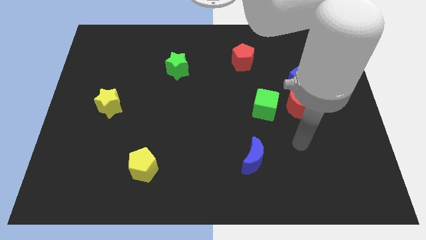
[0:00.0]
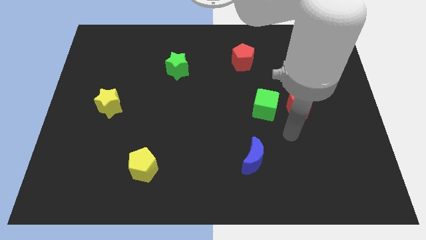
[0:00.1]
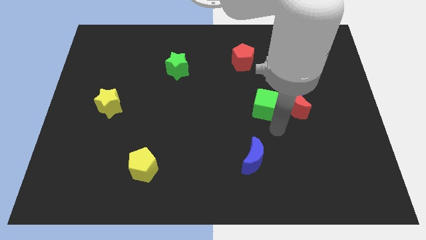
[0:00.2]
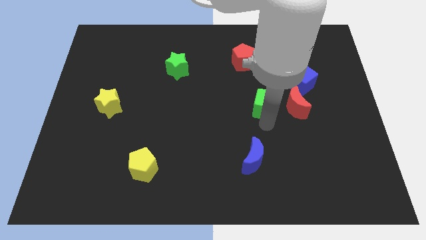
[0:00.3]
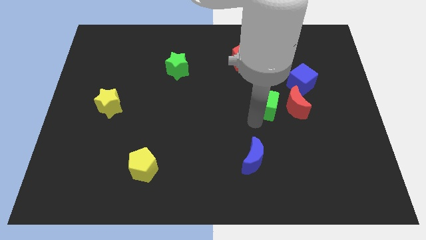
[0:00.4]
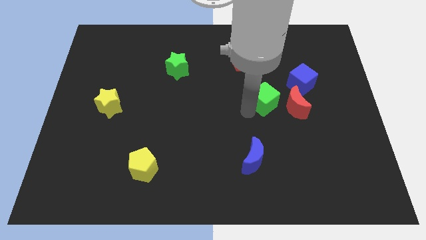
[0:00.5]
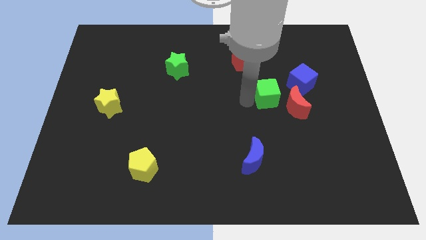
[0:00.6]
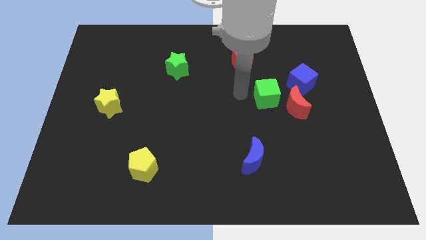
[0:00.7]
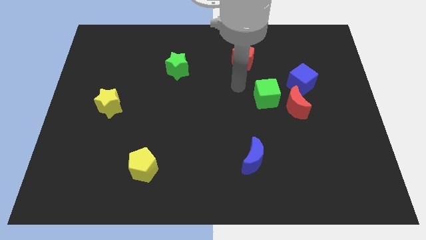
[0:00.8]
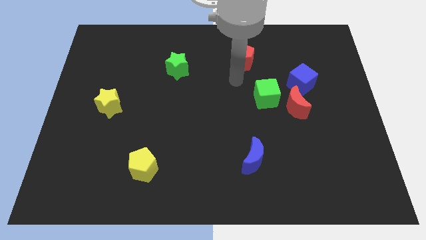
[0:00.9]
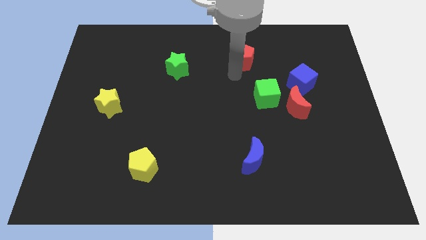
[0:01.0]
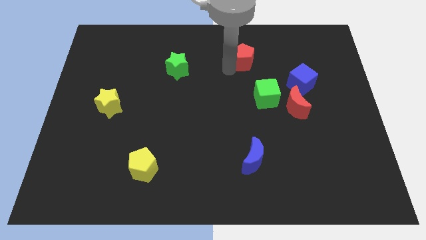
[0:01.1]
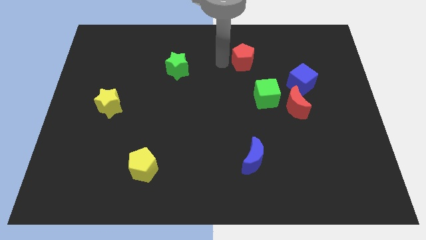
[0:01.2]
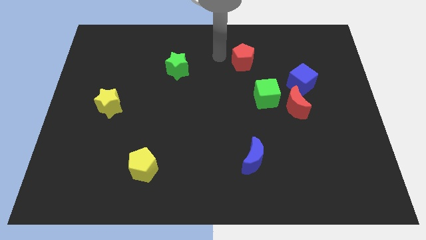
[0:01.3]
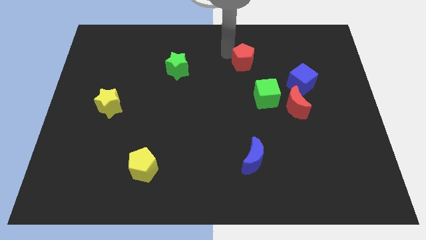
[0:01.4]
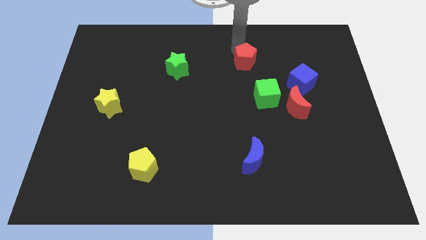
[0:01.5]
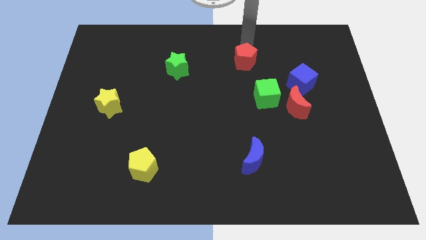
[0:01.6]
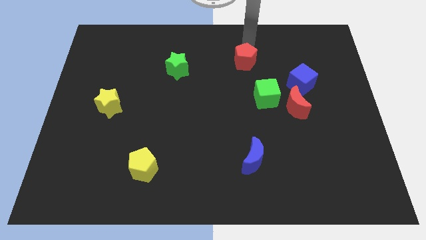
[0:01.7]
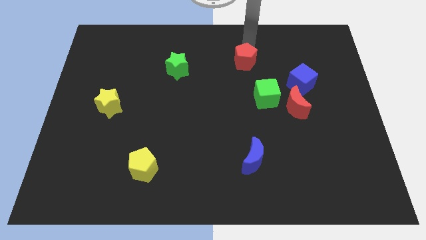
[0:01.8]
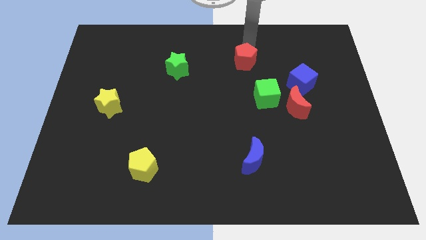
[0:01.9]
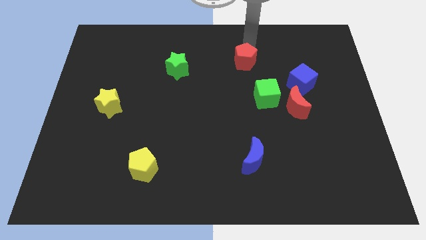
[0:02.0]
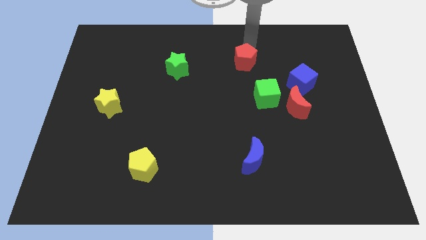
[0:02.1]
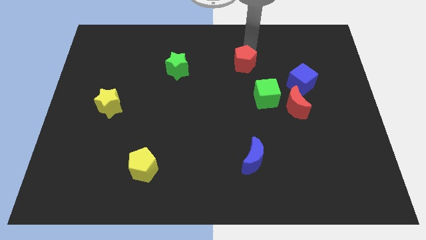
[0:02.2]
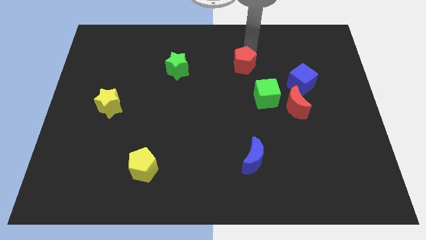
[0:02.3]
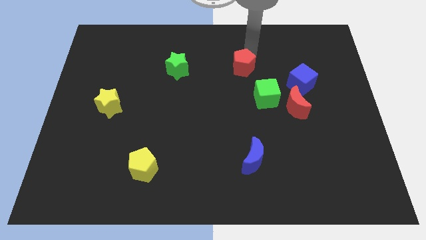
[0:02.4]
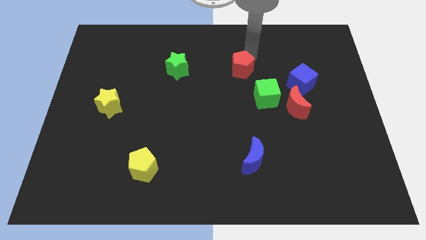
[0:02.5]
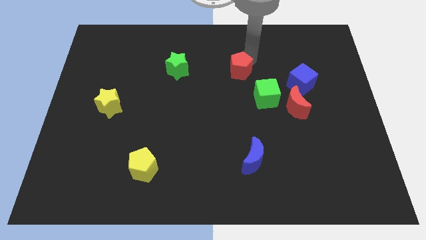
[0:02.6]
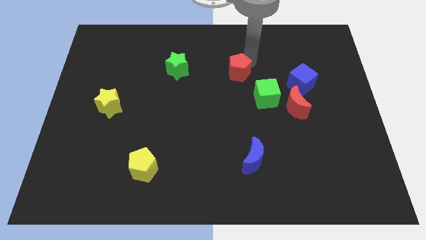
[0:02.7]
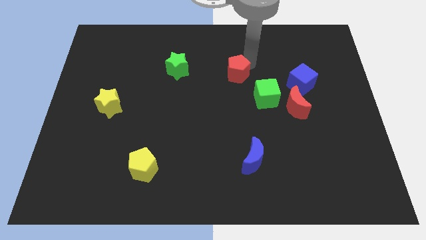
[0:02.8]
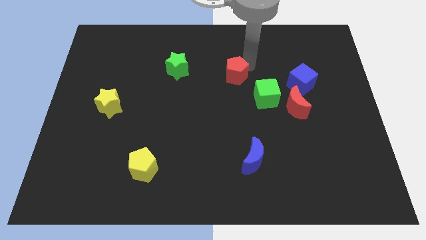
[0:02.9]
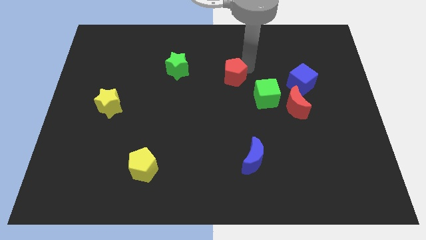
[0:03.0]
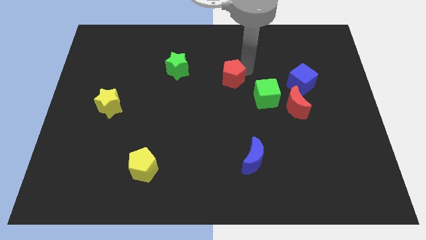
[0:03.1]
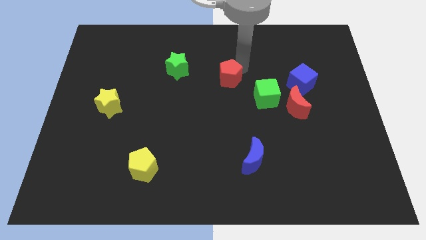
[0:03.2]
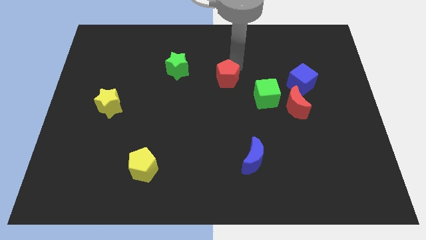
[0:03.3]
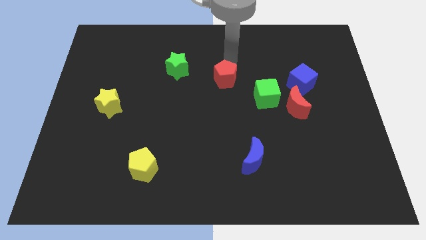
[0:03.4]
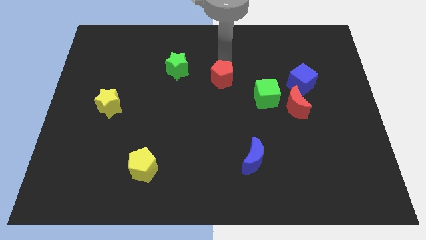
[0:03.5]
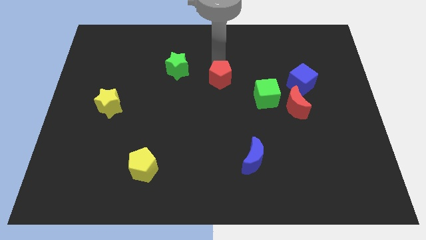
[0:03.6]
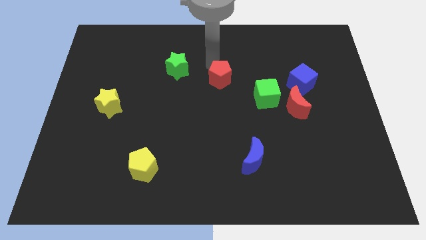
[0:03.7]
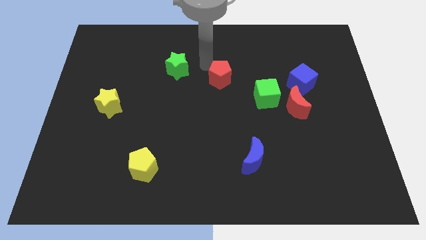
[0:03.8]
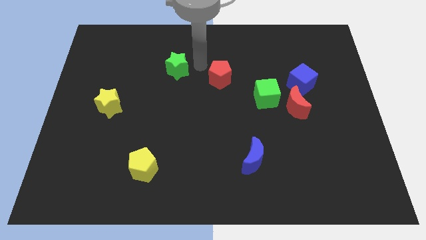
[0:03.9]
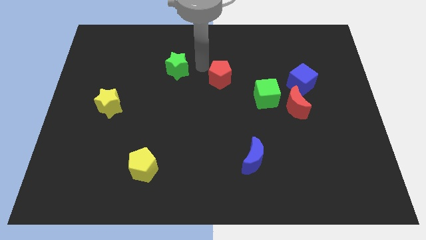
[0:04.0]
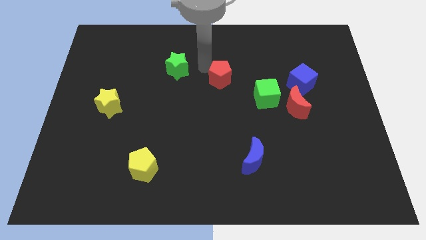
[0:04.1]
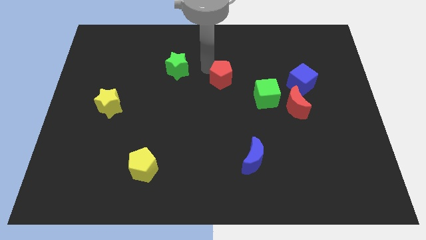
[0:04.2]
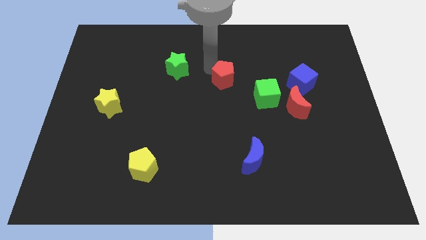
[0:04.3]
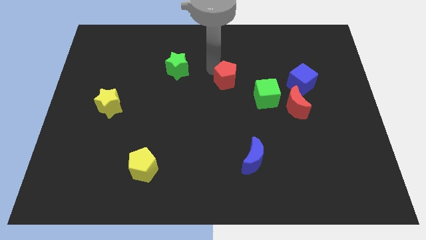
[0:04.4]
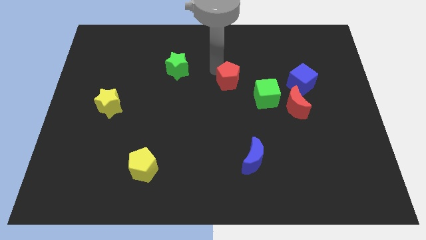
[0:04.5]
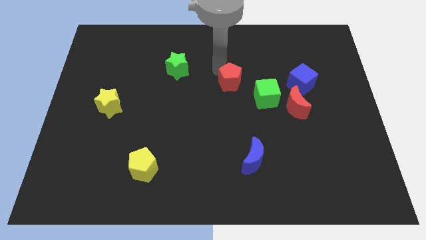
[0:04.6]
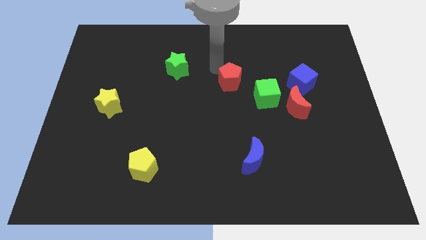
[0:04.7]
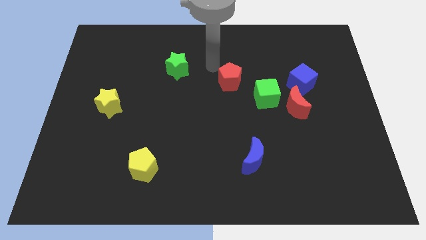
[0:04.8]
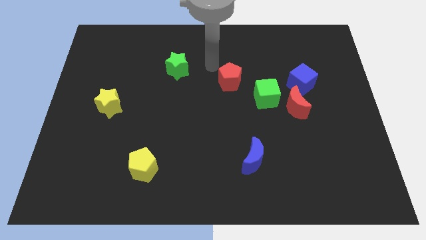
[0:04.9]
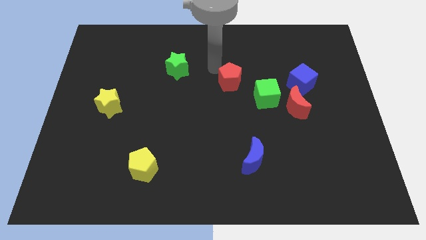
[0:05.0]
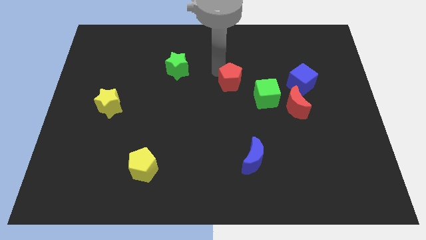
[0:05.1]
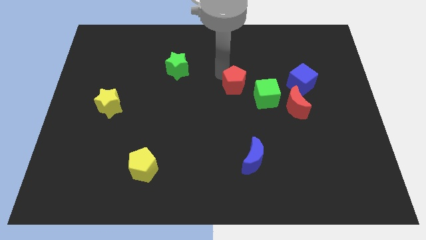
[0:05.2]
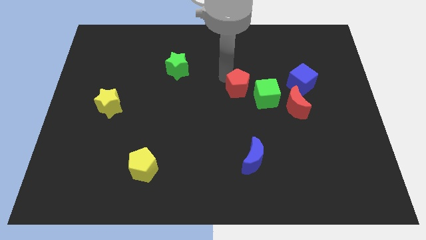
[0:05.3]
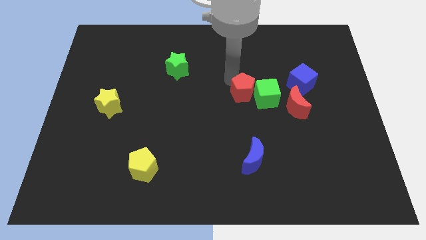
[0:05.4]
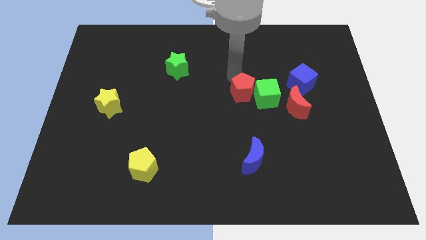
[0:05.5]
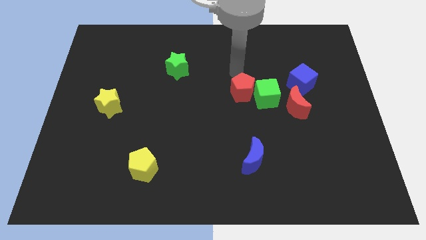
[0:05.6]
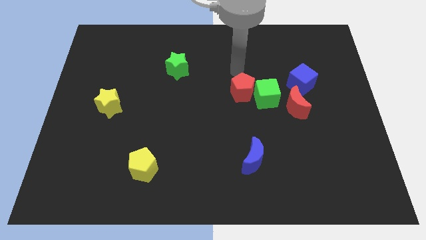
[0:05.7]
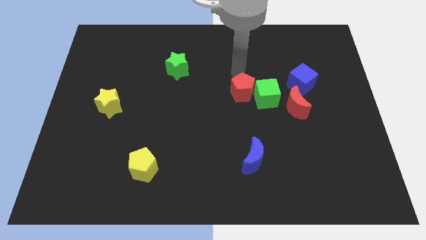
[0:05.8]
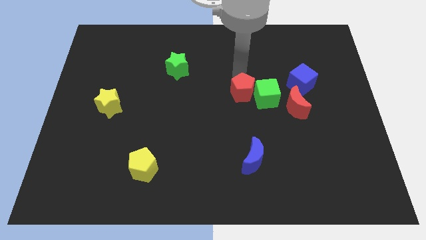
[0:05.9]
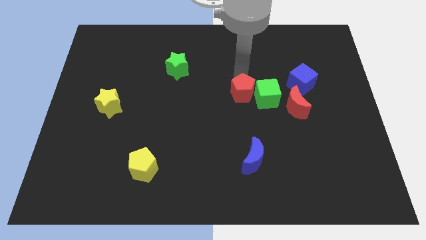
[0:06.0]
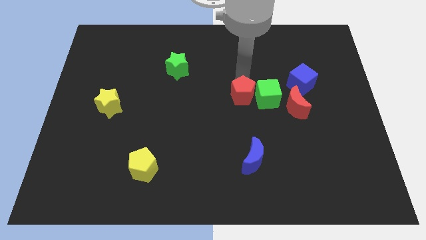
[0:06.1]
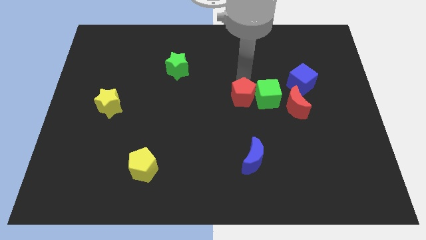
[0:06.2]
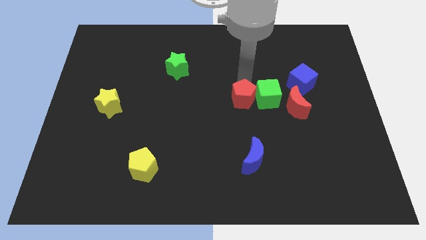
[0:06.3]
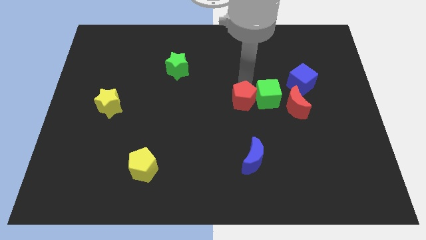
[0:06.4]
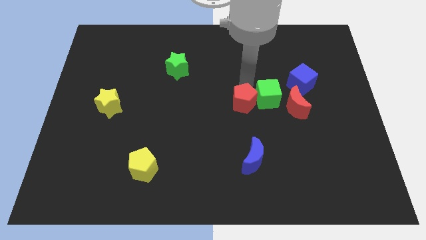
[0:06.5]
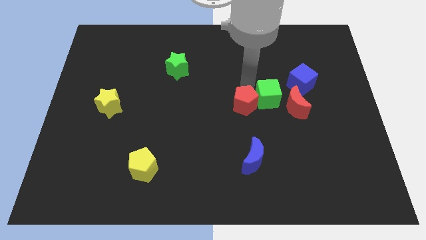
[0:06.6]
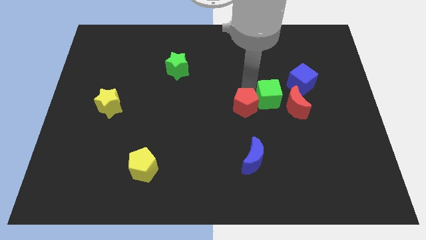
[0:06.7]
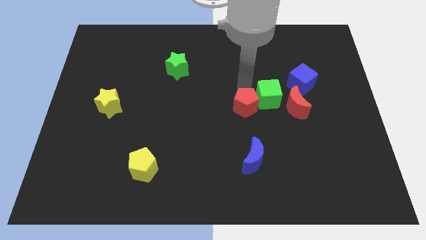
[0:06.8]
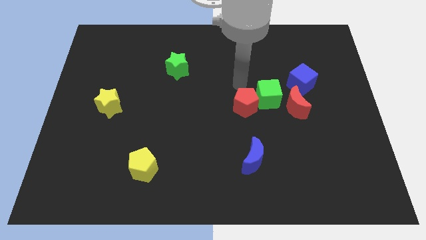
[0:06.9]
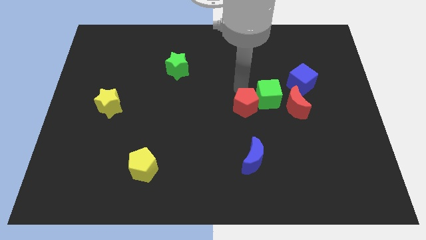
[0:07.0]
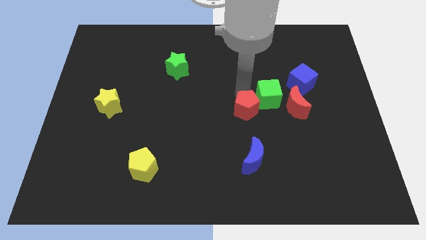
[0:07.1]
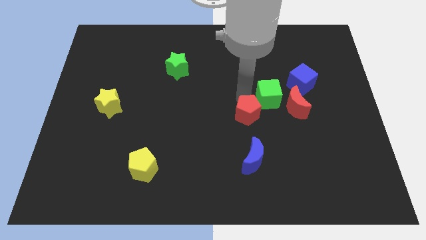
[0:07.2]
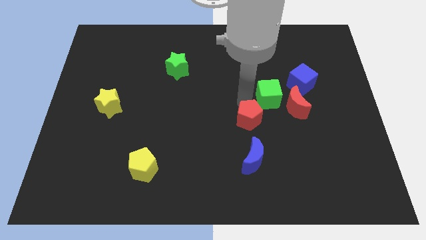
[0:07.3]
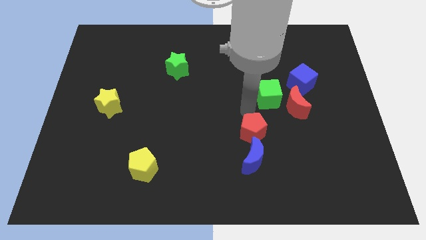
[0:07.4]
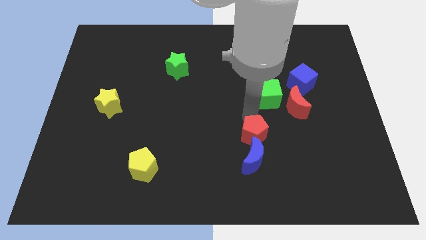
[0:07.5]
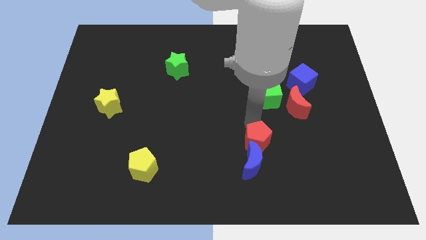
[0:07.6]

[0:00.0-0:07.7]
push the red pentagon towards the blue moon
